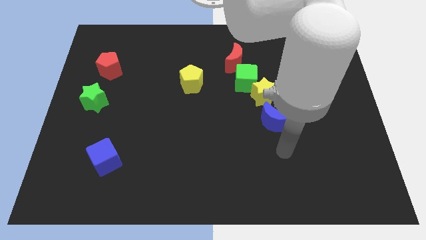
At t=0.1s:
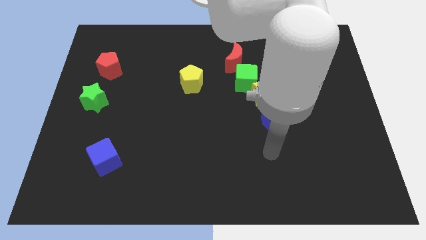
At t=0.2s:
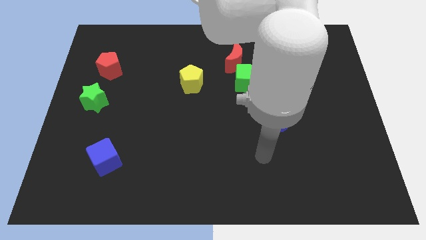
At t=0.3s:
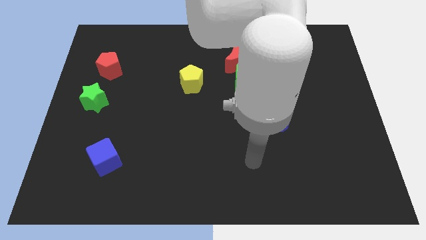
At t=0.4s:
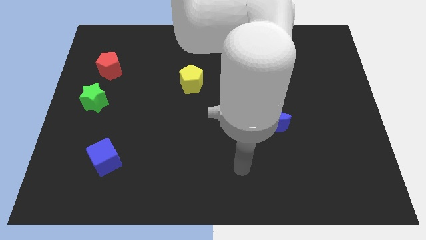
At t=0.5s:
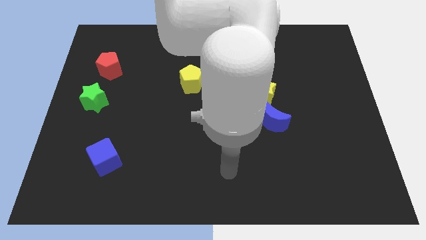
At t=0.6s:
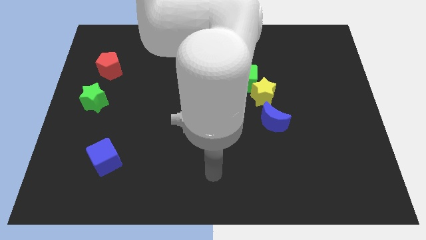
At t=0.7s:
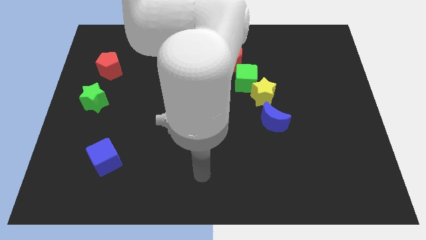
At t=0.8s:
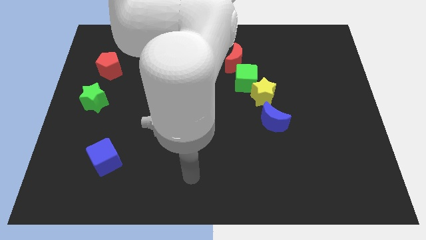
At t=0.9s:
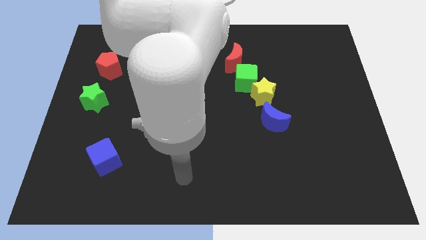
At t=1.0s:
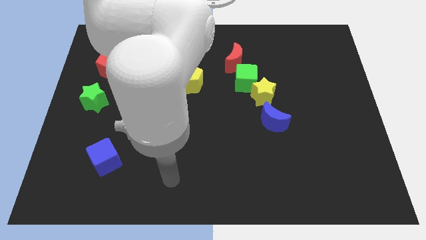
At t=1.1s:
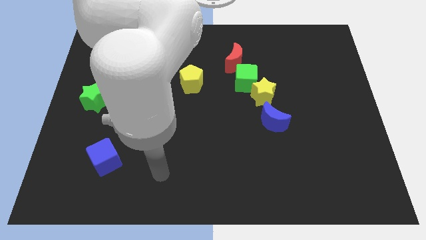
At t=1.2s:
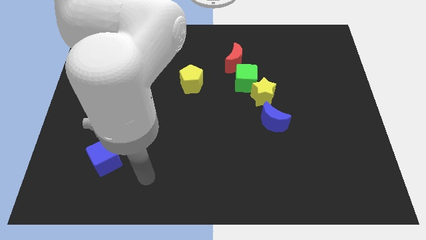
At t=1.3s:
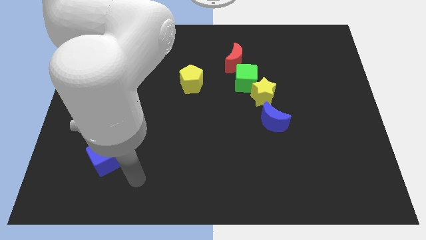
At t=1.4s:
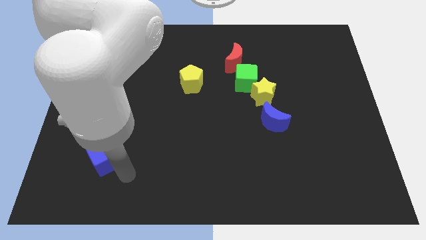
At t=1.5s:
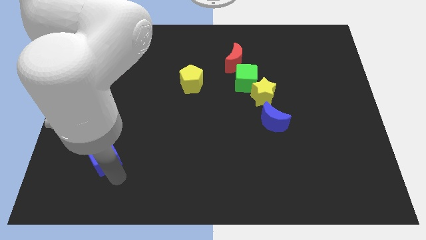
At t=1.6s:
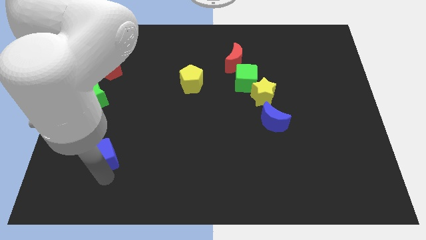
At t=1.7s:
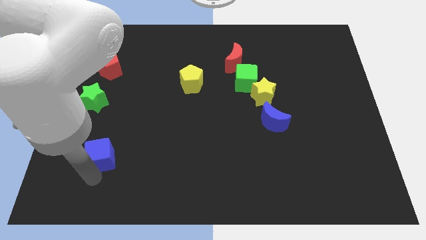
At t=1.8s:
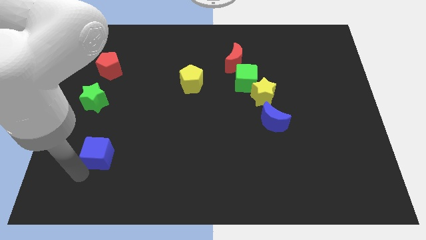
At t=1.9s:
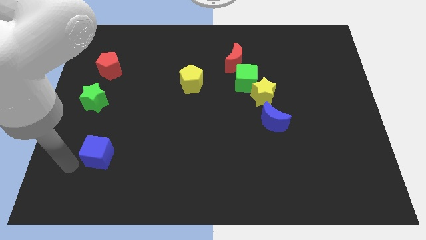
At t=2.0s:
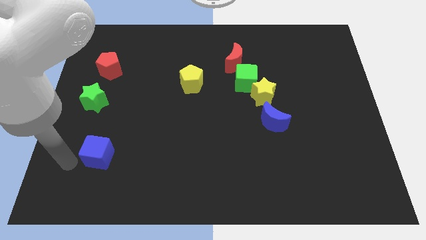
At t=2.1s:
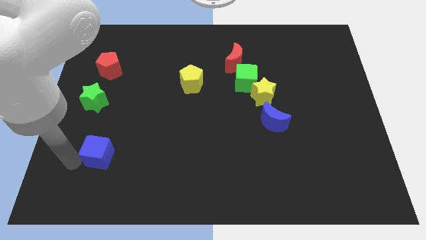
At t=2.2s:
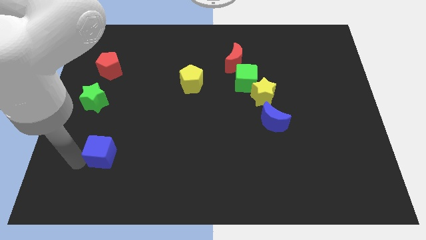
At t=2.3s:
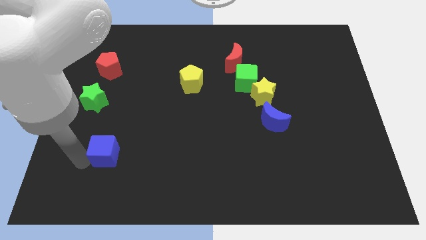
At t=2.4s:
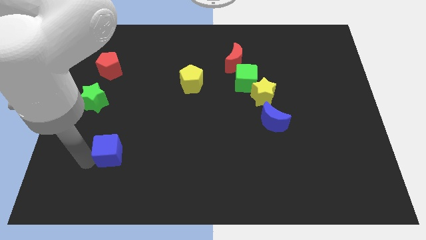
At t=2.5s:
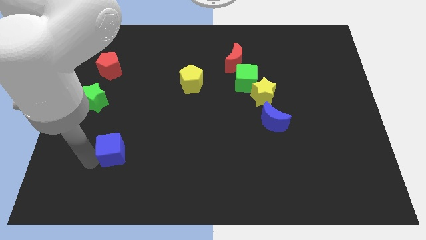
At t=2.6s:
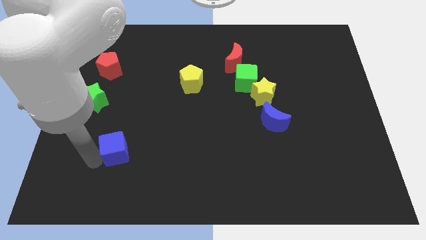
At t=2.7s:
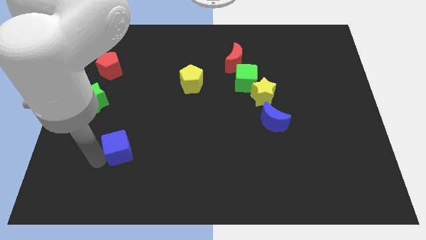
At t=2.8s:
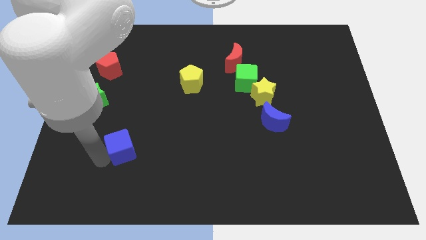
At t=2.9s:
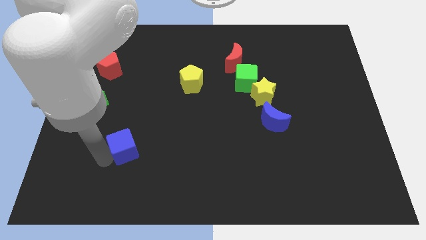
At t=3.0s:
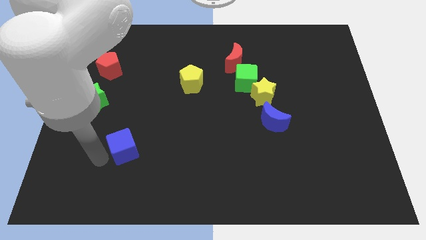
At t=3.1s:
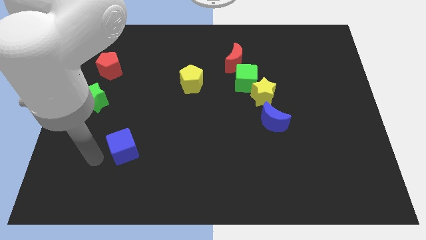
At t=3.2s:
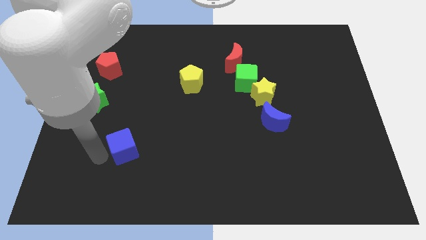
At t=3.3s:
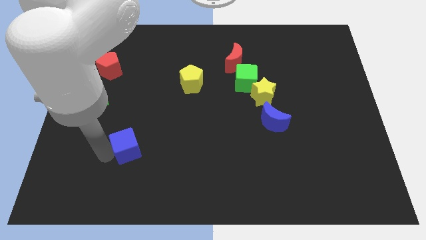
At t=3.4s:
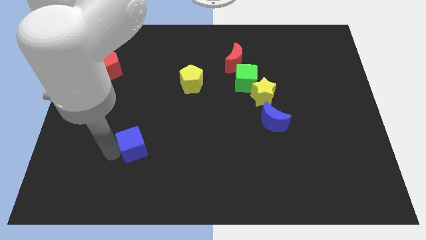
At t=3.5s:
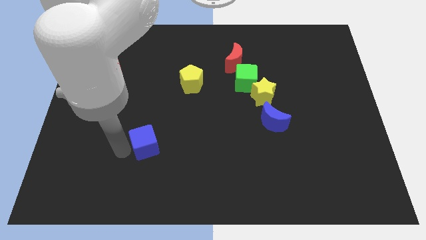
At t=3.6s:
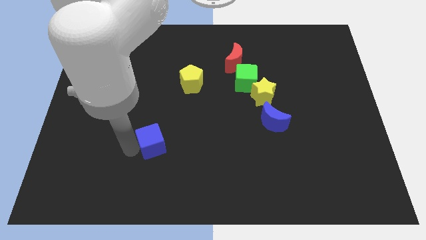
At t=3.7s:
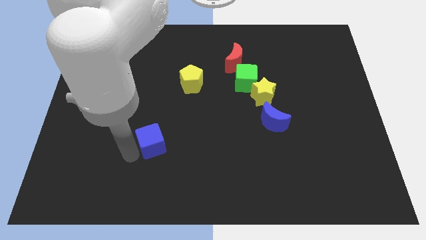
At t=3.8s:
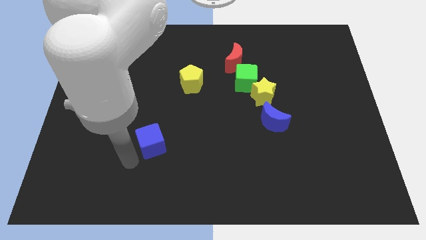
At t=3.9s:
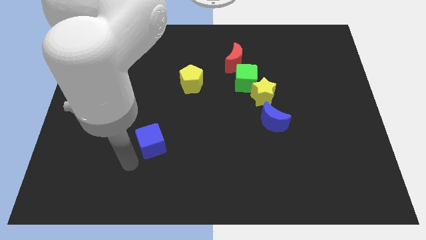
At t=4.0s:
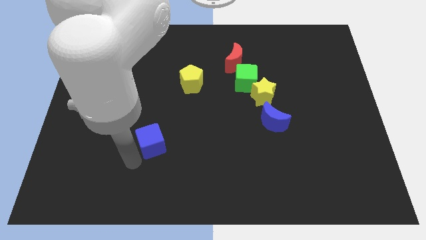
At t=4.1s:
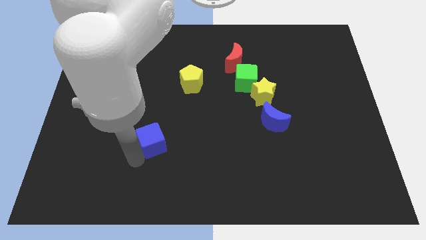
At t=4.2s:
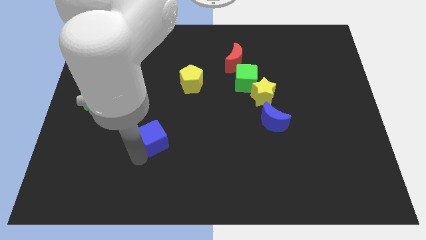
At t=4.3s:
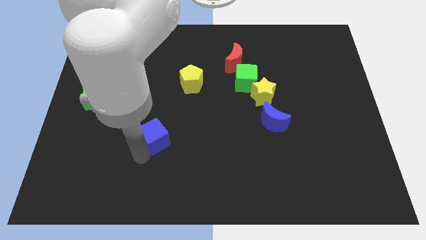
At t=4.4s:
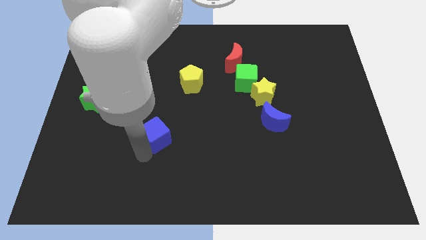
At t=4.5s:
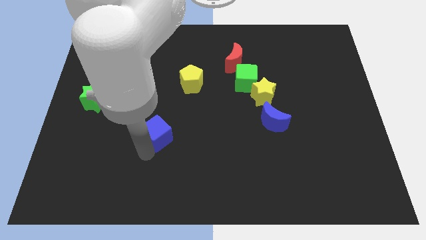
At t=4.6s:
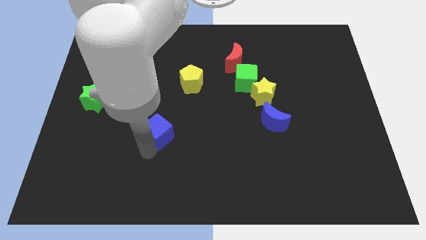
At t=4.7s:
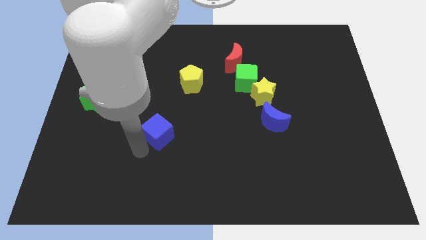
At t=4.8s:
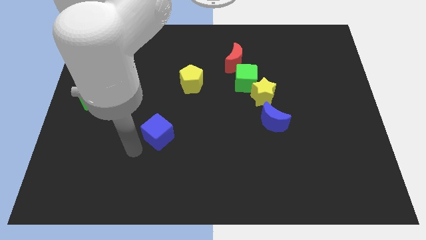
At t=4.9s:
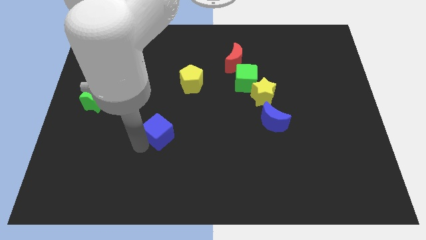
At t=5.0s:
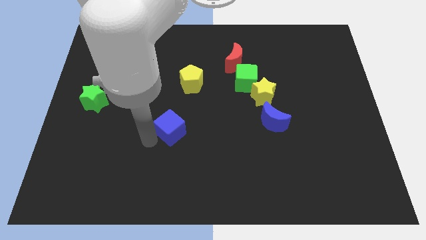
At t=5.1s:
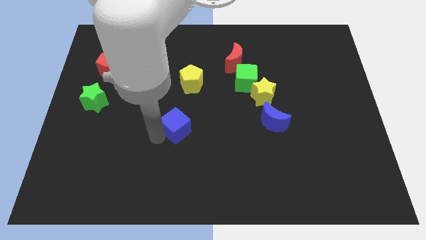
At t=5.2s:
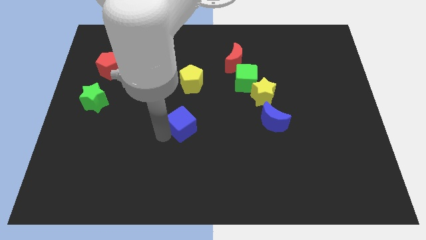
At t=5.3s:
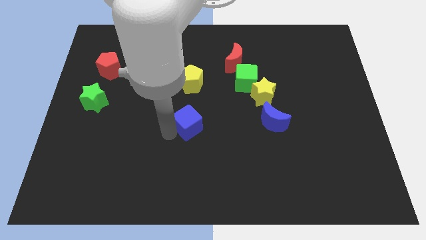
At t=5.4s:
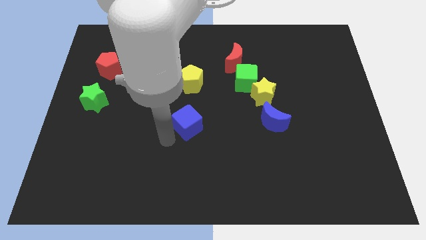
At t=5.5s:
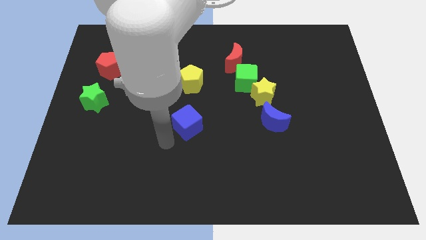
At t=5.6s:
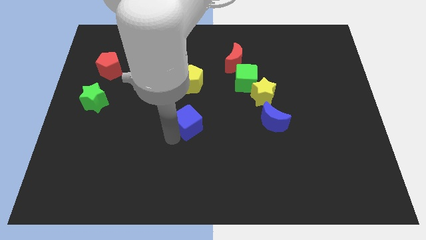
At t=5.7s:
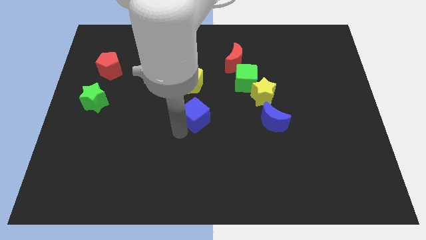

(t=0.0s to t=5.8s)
push the blue cube up and then to the right

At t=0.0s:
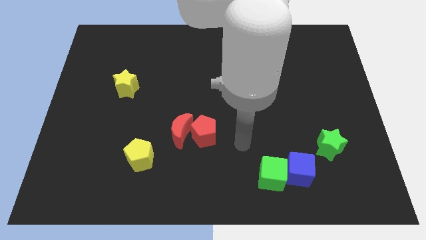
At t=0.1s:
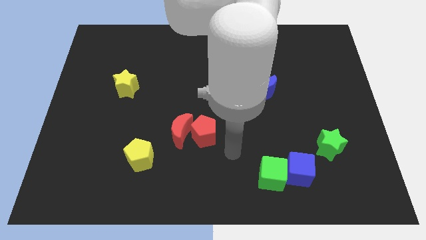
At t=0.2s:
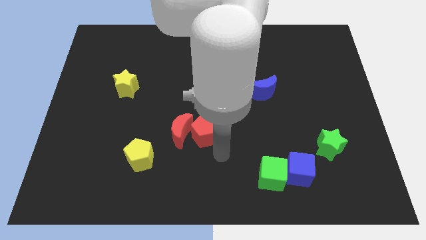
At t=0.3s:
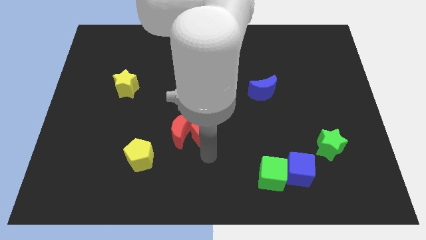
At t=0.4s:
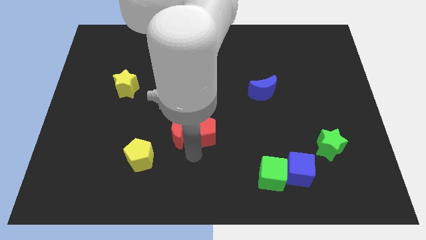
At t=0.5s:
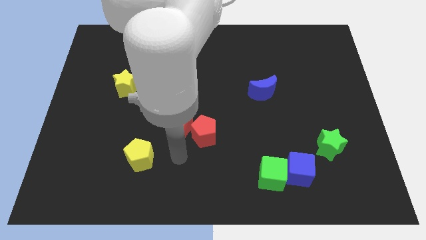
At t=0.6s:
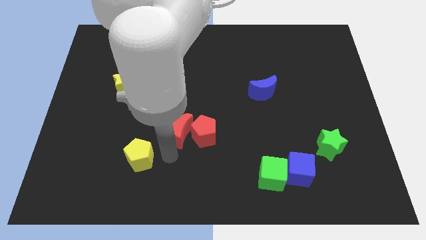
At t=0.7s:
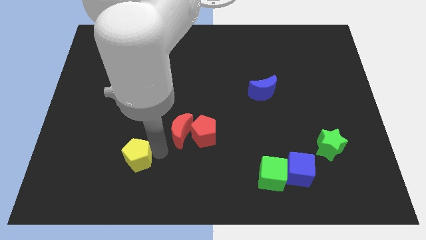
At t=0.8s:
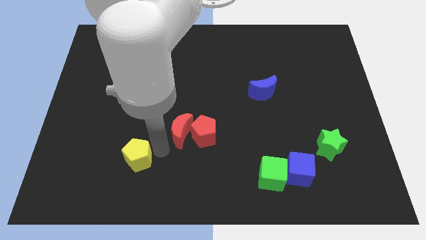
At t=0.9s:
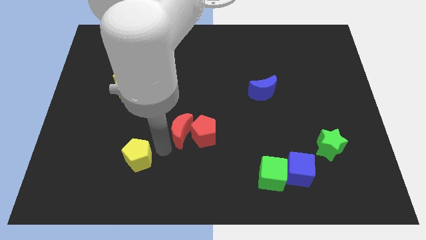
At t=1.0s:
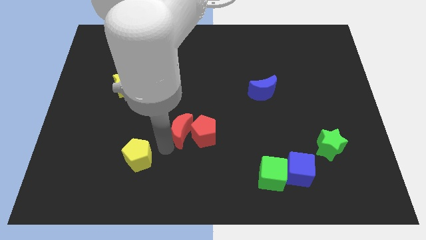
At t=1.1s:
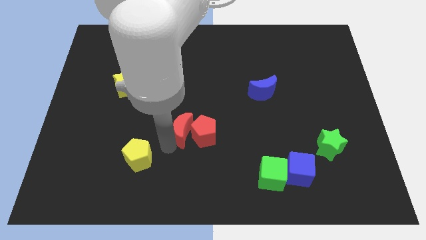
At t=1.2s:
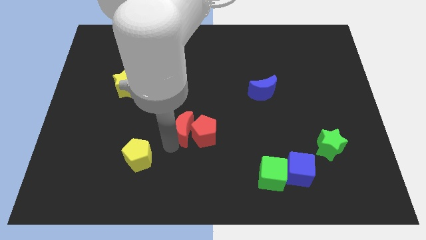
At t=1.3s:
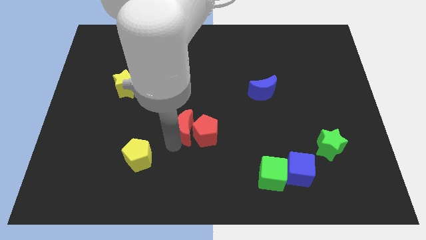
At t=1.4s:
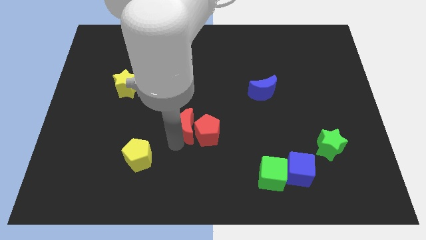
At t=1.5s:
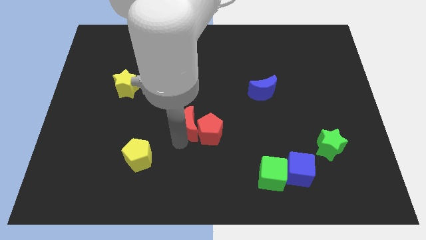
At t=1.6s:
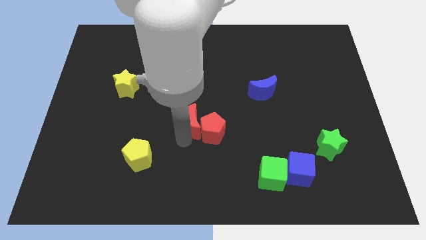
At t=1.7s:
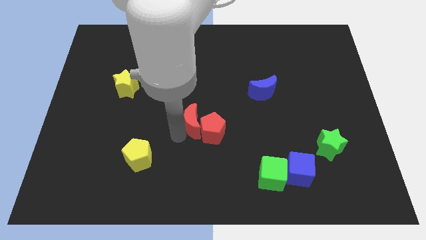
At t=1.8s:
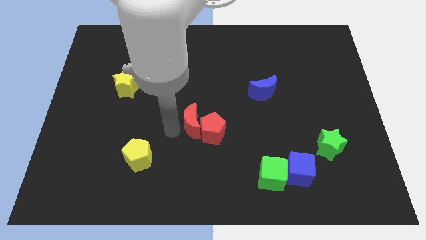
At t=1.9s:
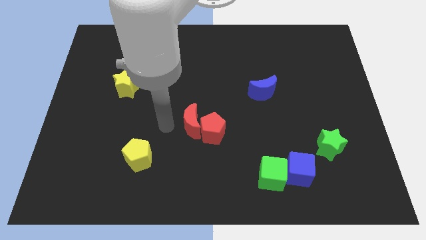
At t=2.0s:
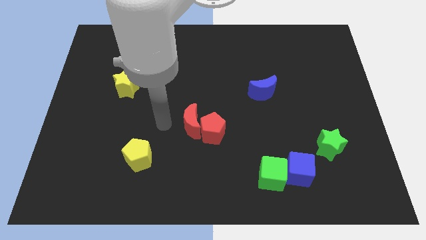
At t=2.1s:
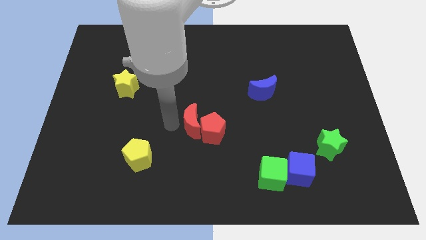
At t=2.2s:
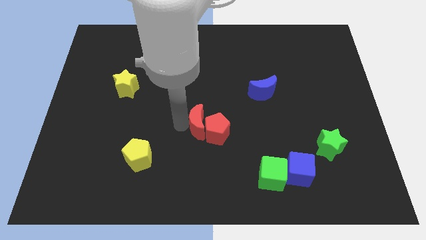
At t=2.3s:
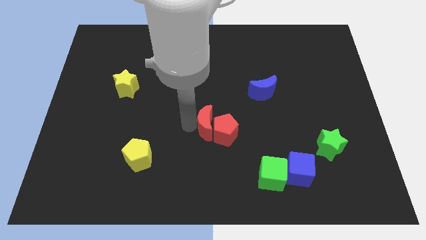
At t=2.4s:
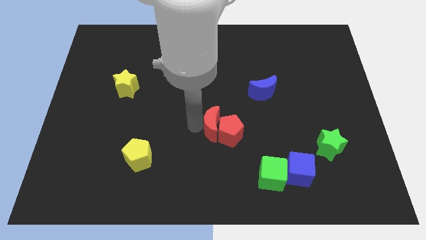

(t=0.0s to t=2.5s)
slide the red moon right a bit
